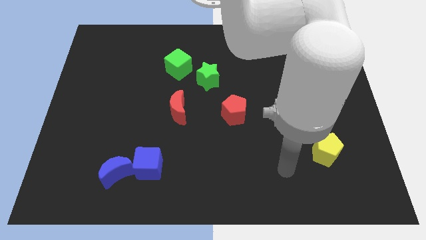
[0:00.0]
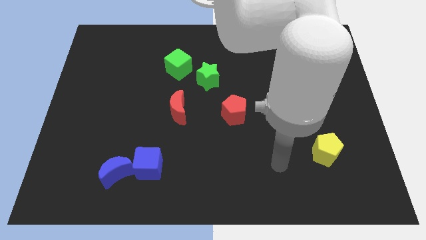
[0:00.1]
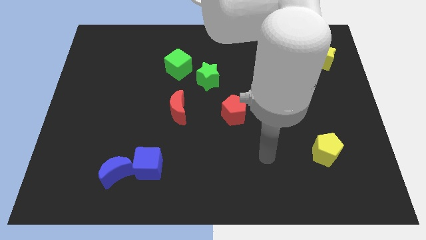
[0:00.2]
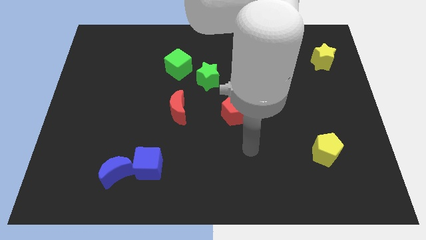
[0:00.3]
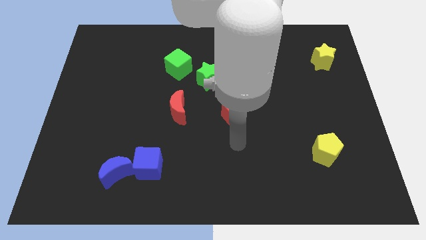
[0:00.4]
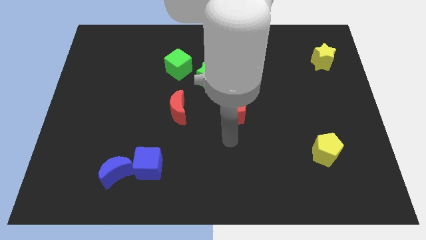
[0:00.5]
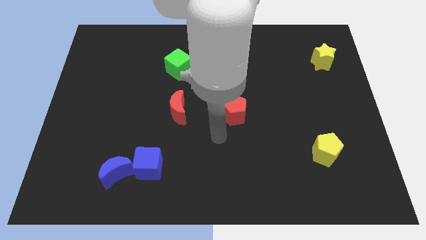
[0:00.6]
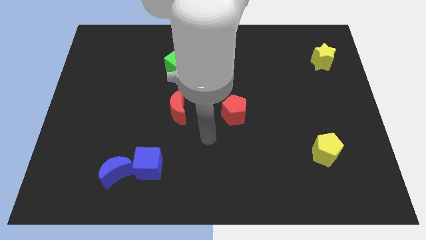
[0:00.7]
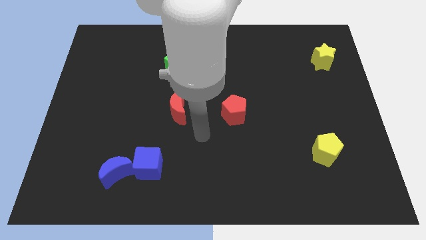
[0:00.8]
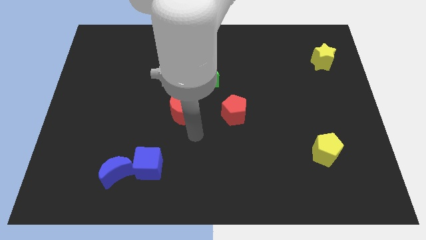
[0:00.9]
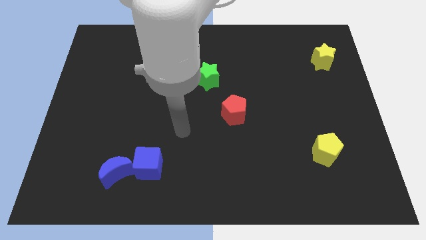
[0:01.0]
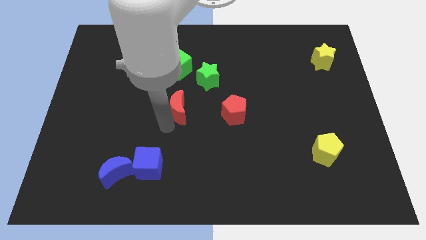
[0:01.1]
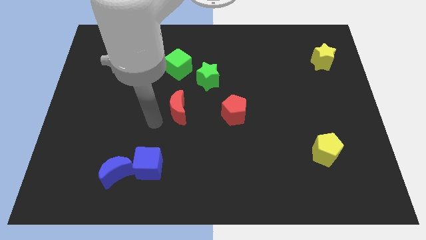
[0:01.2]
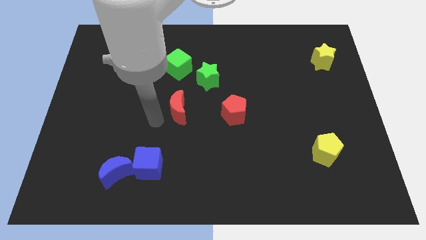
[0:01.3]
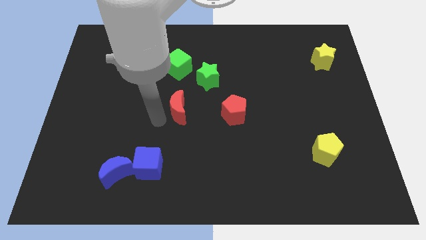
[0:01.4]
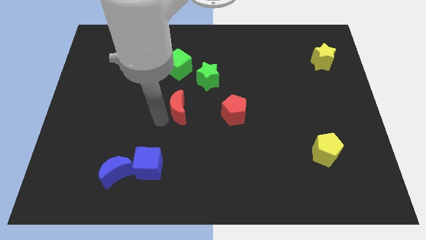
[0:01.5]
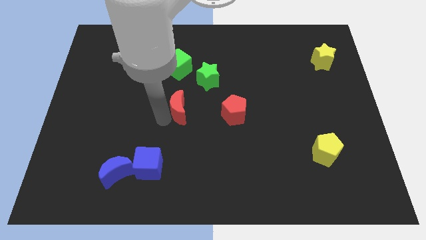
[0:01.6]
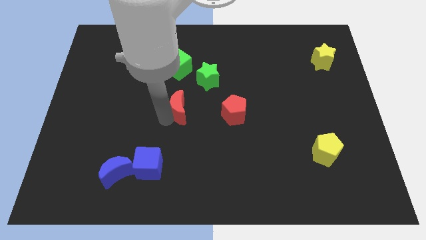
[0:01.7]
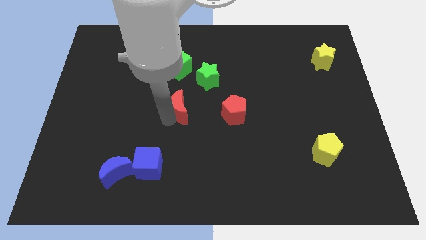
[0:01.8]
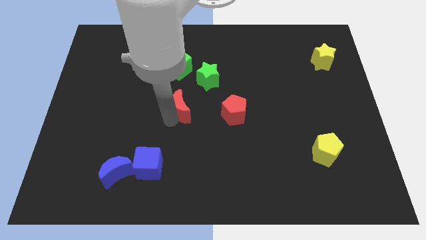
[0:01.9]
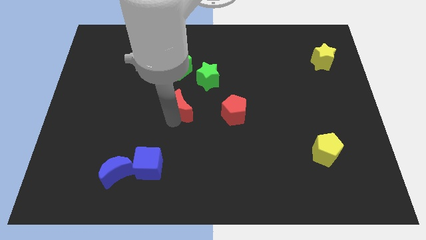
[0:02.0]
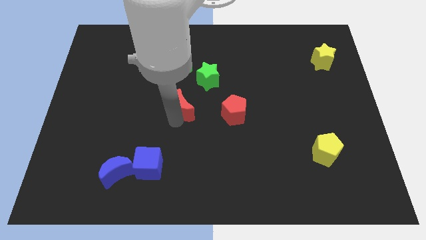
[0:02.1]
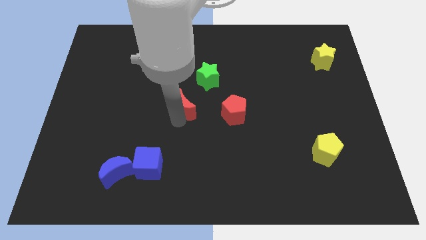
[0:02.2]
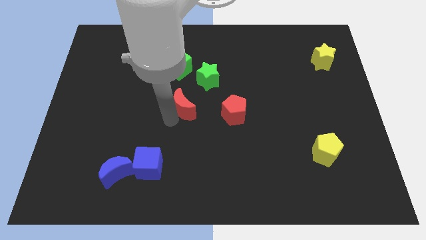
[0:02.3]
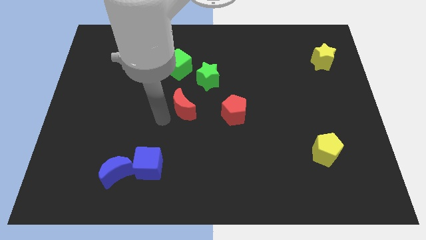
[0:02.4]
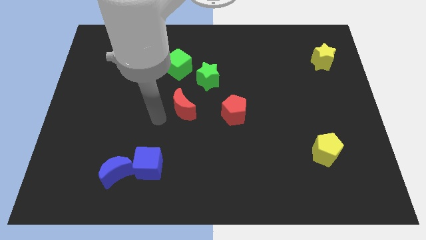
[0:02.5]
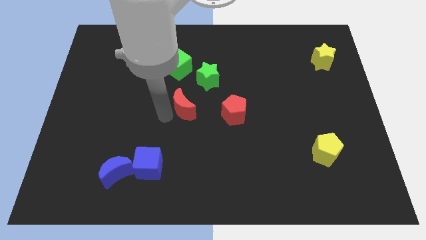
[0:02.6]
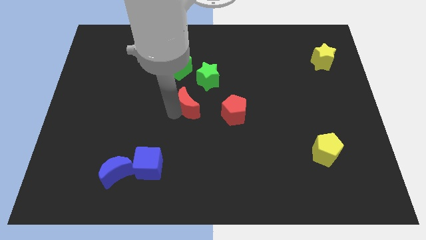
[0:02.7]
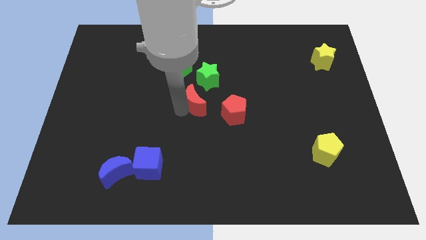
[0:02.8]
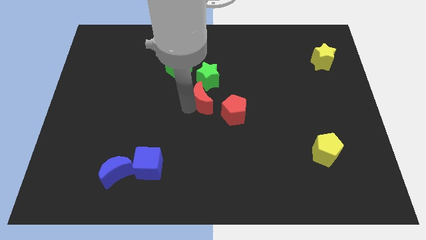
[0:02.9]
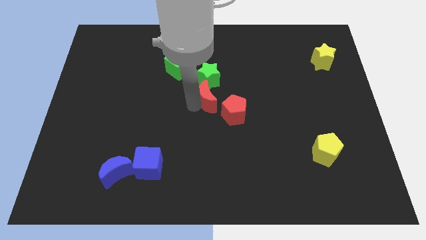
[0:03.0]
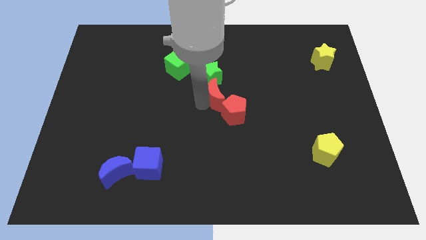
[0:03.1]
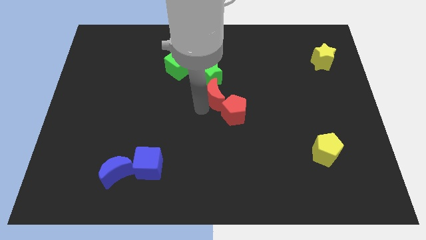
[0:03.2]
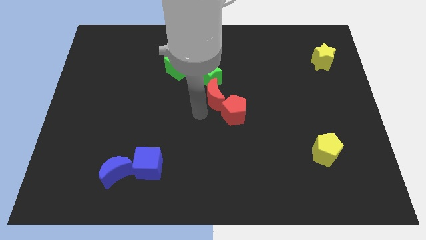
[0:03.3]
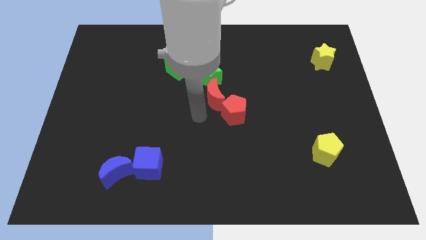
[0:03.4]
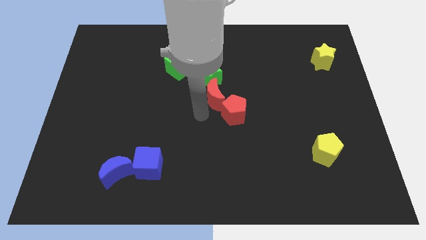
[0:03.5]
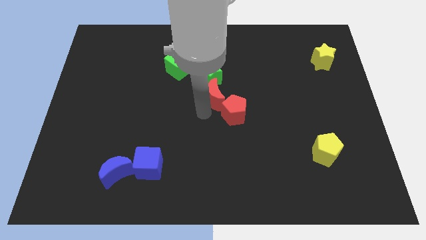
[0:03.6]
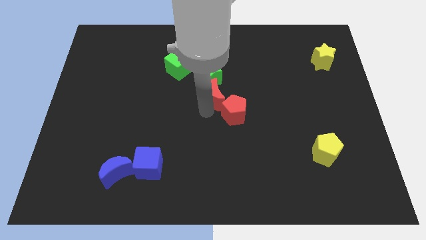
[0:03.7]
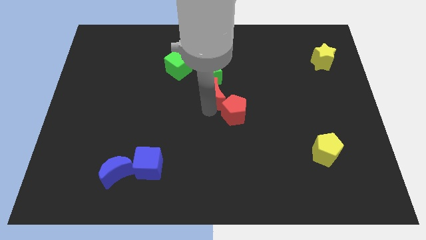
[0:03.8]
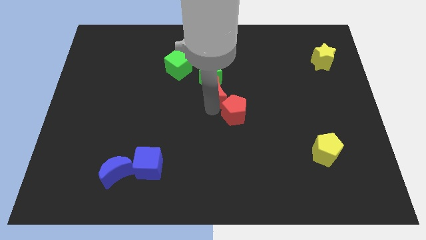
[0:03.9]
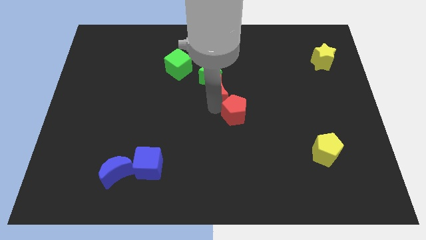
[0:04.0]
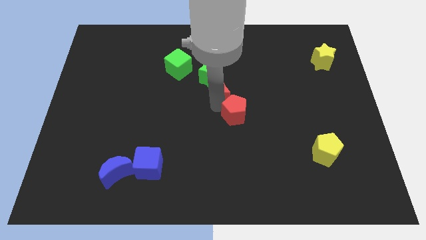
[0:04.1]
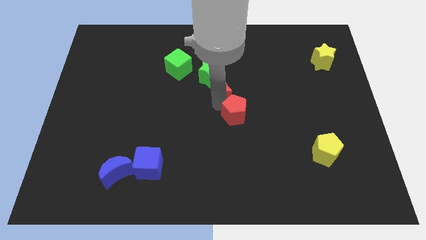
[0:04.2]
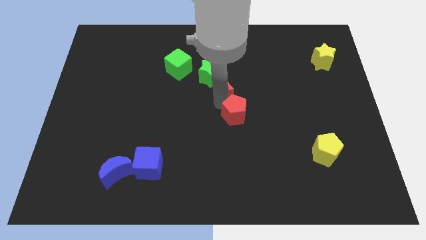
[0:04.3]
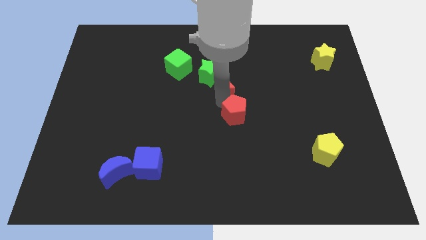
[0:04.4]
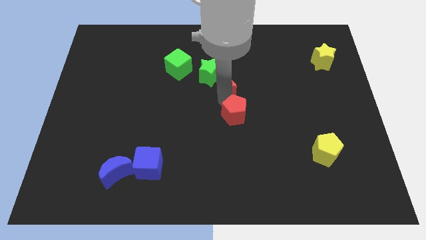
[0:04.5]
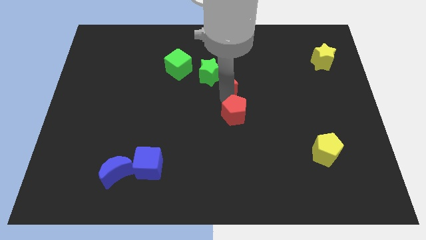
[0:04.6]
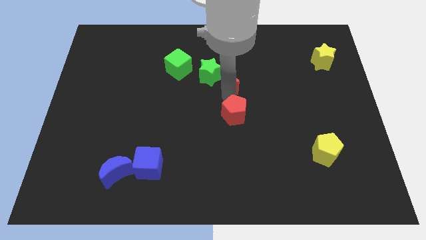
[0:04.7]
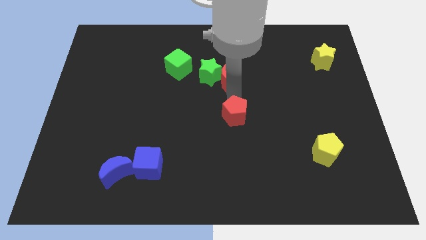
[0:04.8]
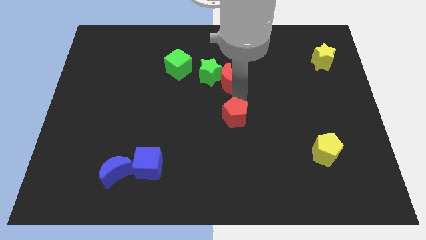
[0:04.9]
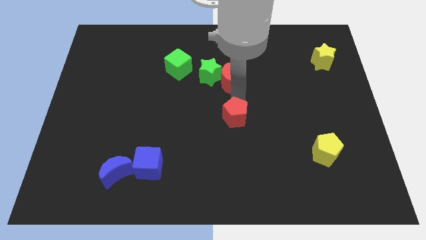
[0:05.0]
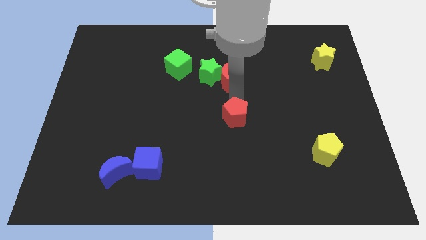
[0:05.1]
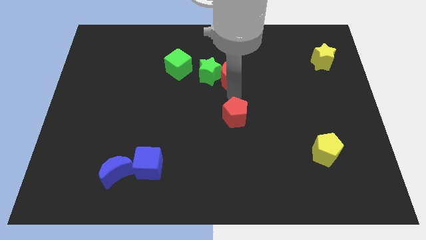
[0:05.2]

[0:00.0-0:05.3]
put the red moon right of the green cube

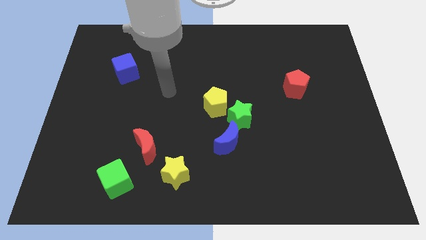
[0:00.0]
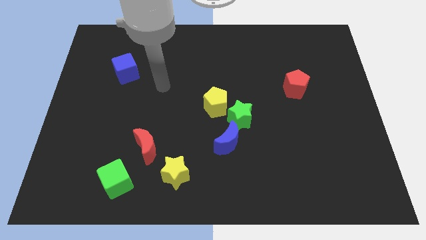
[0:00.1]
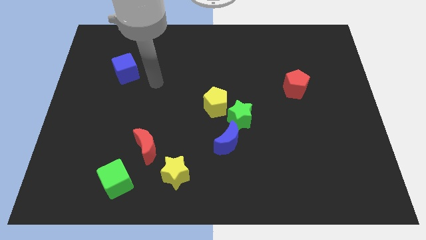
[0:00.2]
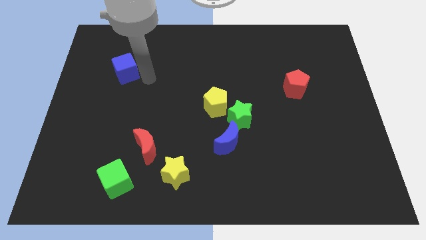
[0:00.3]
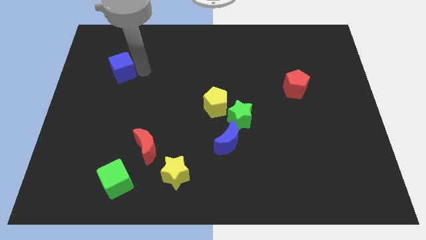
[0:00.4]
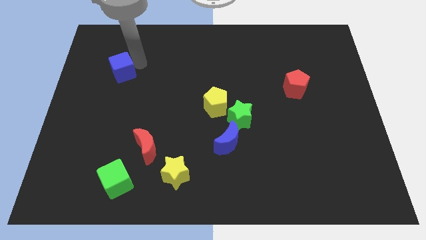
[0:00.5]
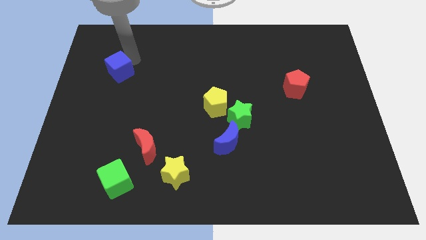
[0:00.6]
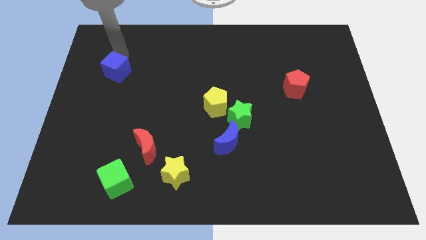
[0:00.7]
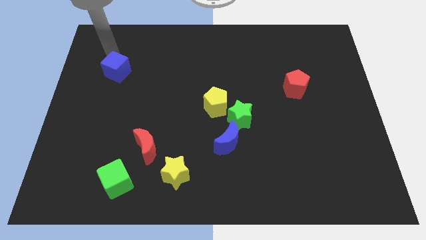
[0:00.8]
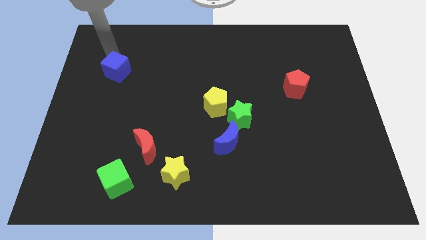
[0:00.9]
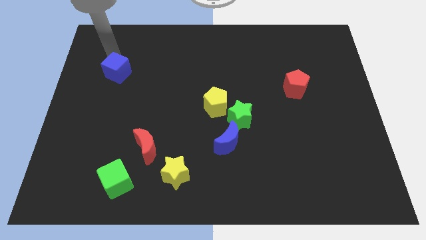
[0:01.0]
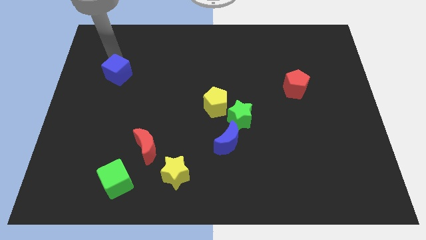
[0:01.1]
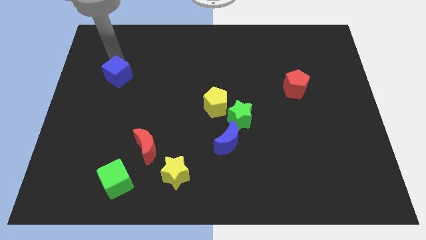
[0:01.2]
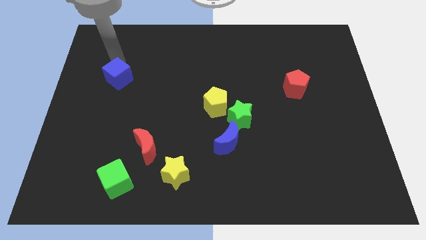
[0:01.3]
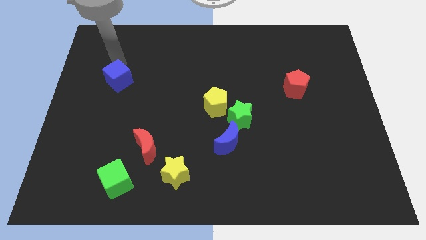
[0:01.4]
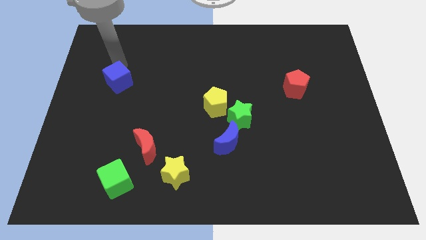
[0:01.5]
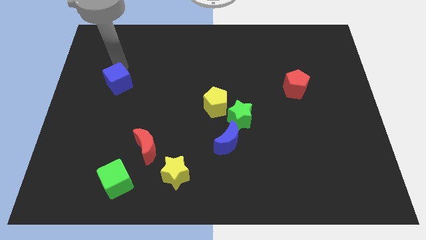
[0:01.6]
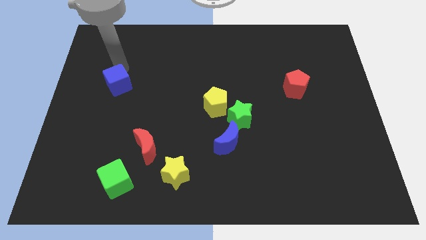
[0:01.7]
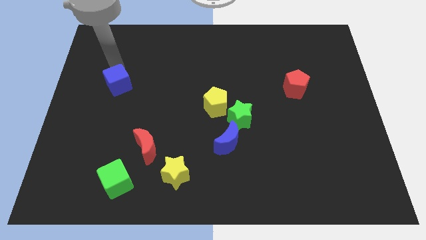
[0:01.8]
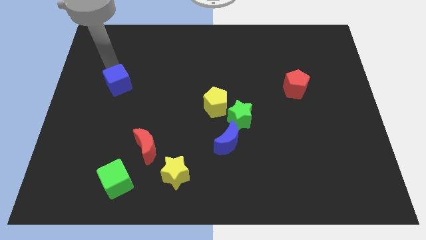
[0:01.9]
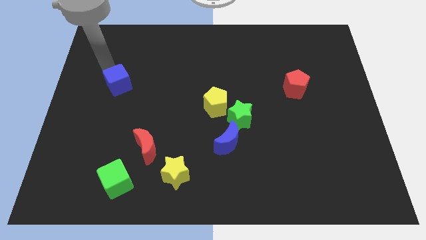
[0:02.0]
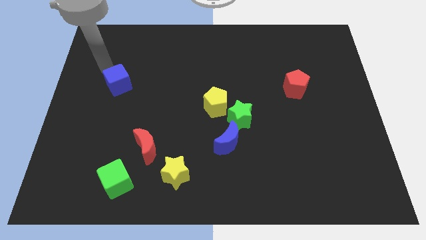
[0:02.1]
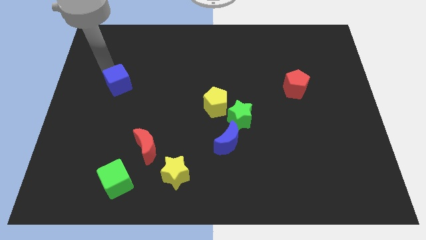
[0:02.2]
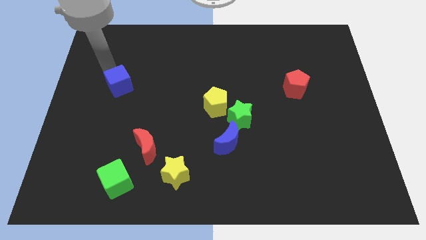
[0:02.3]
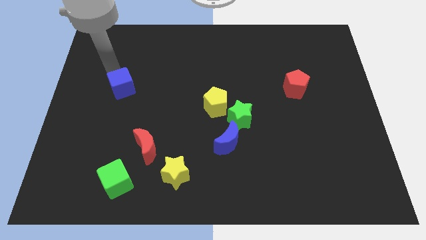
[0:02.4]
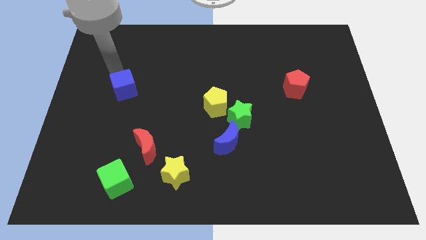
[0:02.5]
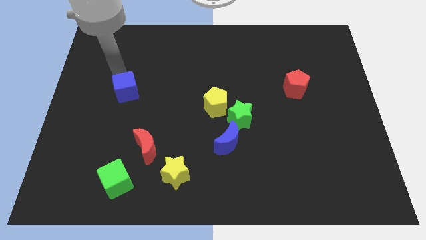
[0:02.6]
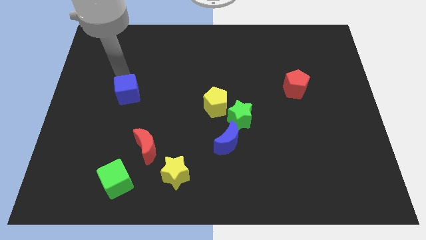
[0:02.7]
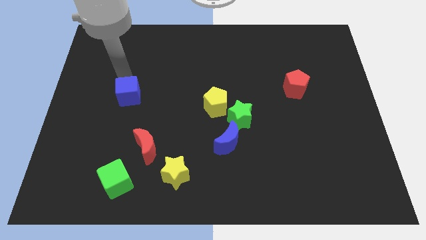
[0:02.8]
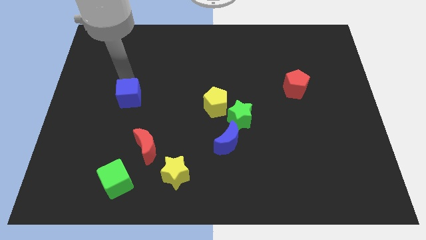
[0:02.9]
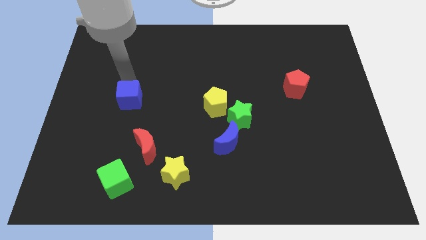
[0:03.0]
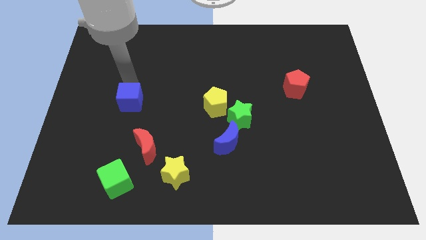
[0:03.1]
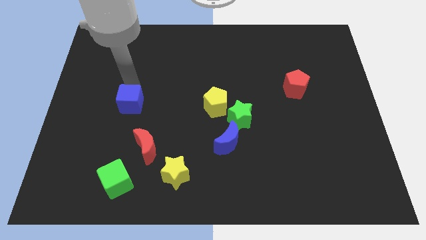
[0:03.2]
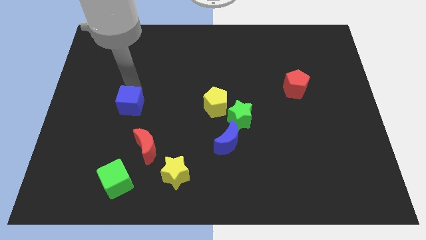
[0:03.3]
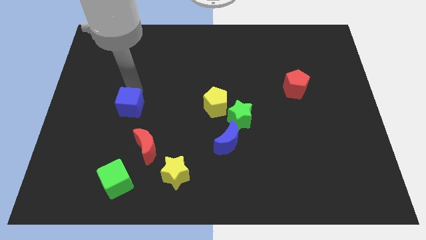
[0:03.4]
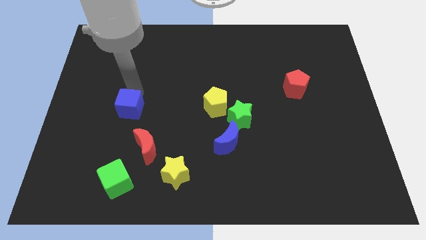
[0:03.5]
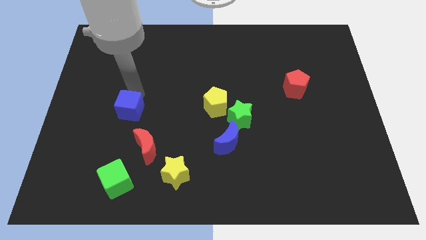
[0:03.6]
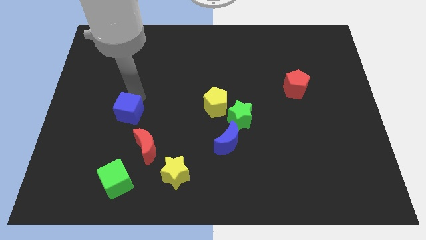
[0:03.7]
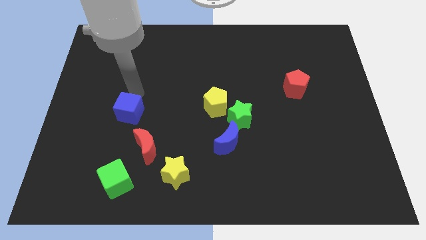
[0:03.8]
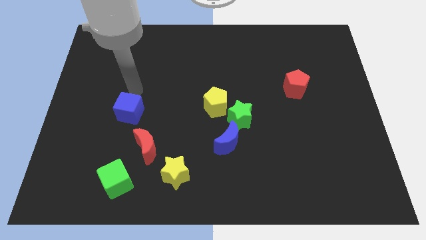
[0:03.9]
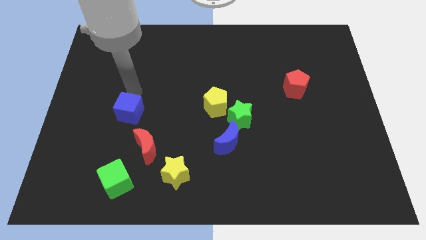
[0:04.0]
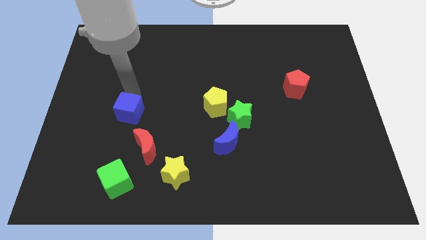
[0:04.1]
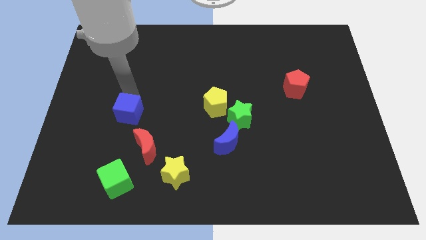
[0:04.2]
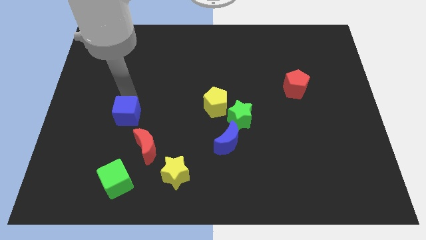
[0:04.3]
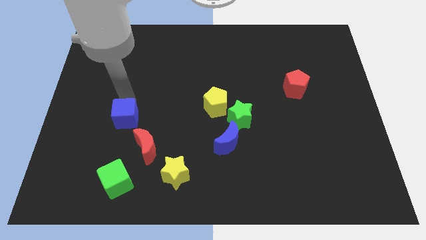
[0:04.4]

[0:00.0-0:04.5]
put the blue cube to the top side of the green cube
